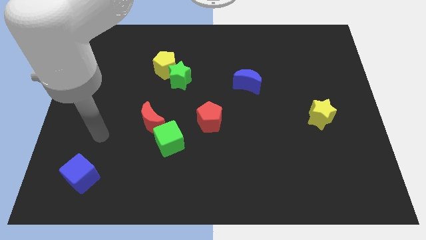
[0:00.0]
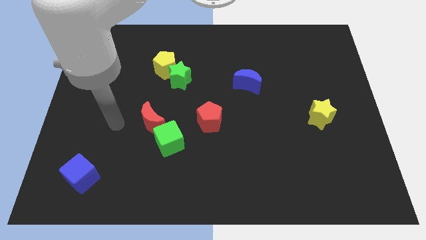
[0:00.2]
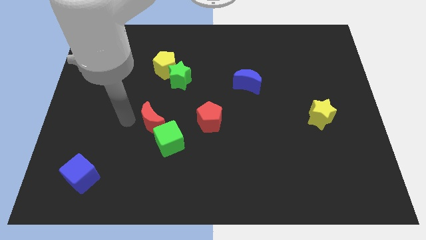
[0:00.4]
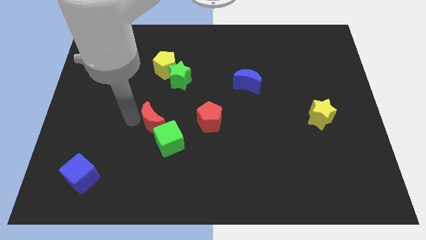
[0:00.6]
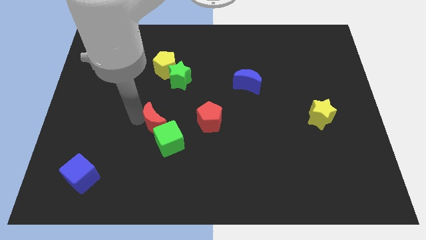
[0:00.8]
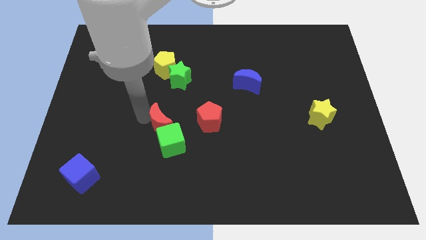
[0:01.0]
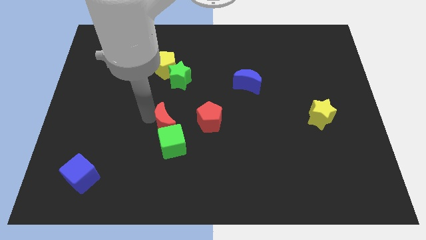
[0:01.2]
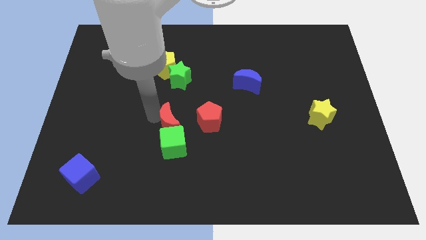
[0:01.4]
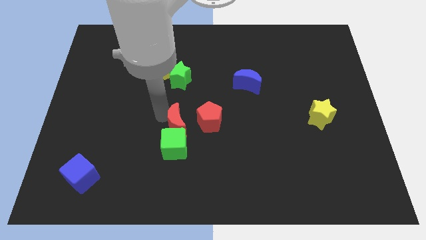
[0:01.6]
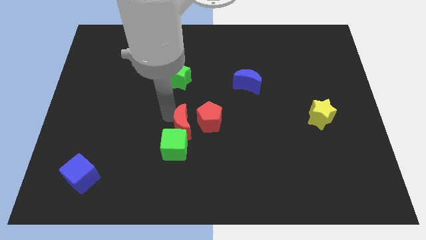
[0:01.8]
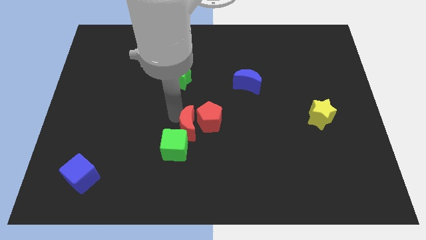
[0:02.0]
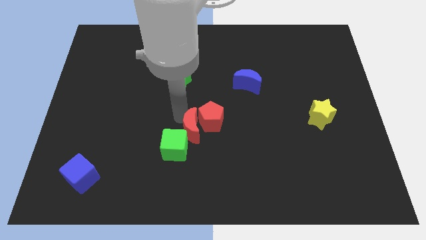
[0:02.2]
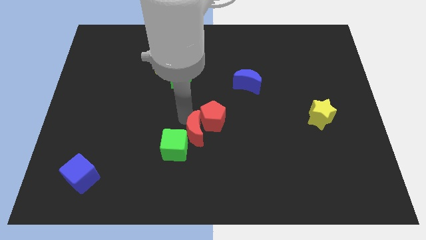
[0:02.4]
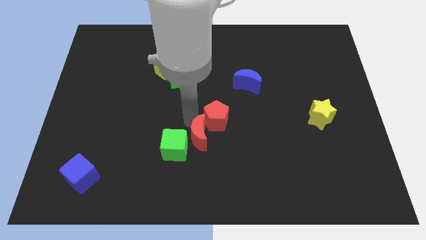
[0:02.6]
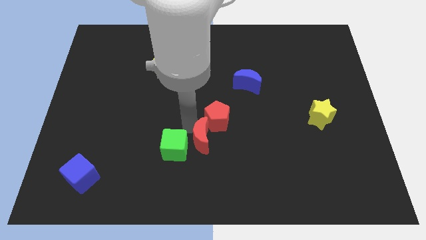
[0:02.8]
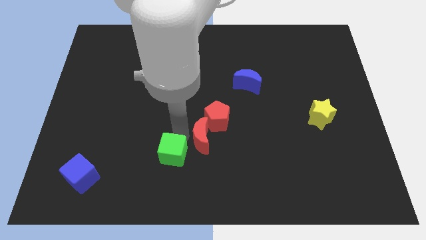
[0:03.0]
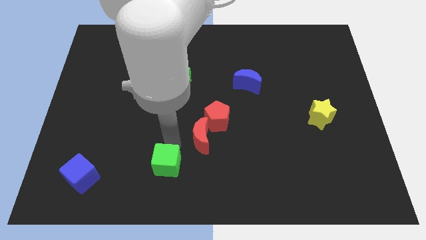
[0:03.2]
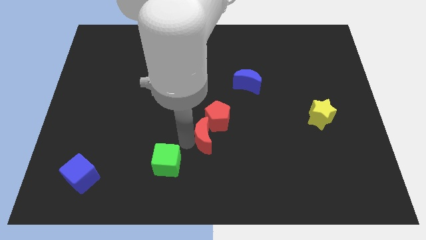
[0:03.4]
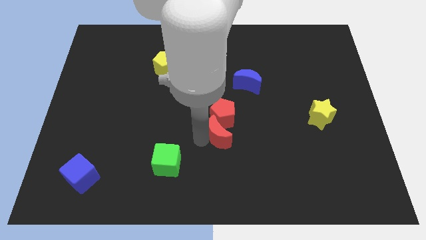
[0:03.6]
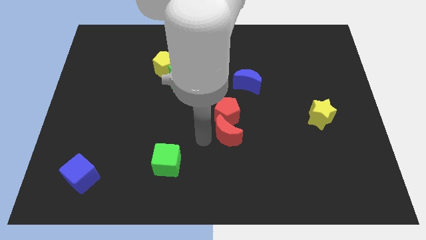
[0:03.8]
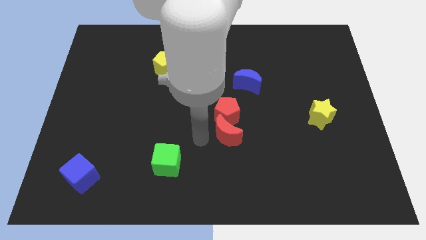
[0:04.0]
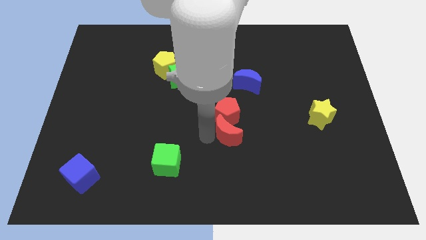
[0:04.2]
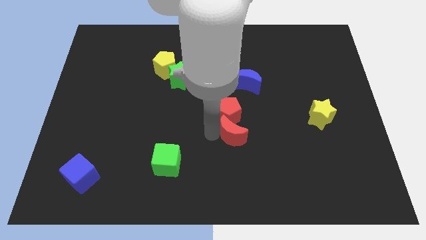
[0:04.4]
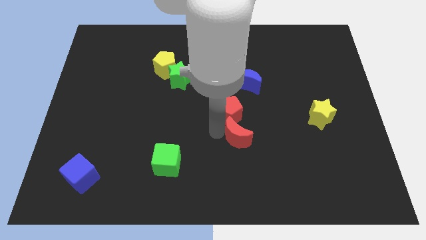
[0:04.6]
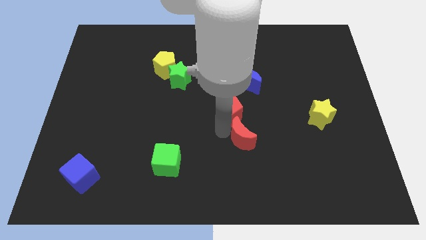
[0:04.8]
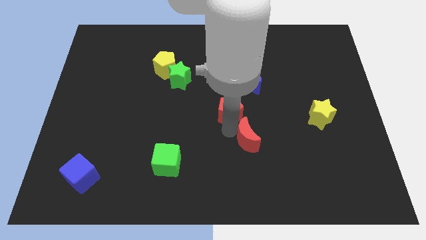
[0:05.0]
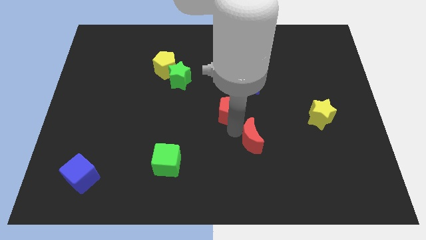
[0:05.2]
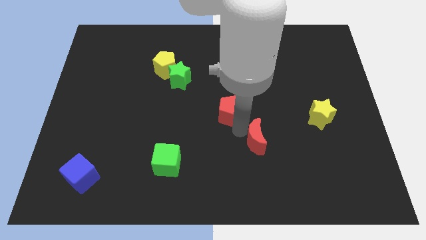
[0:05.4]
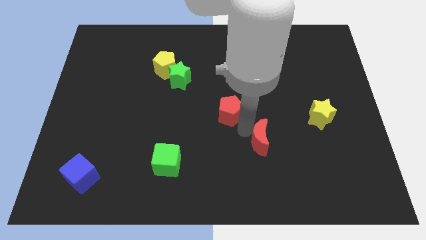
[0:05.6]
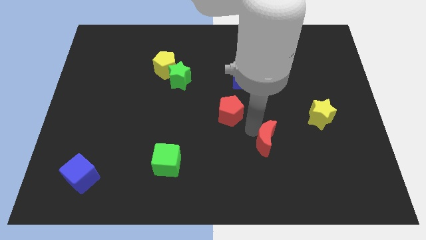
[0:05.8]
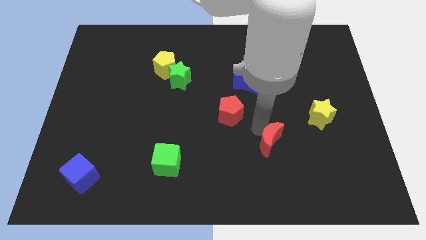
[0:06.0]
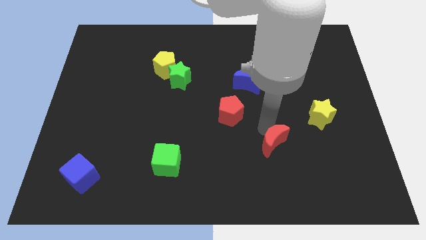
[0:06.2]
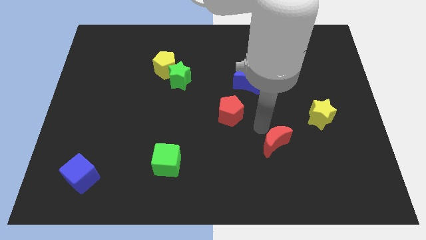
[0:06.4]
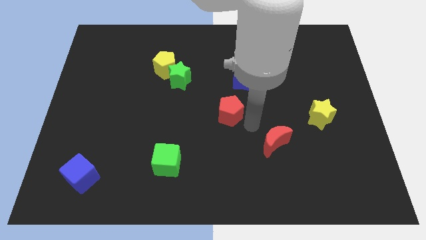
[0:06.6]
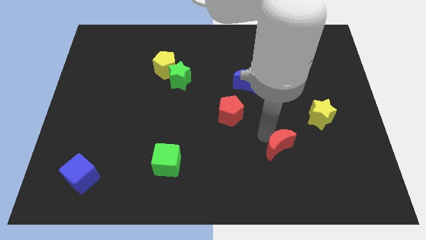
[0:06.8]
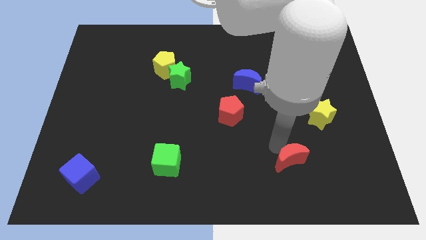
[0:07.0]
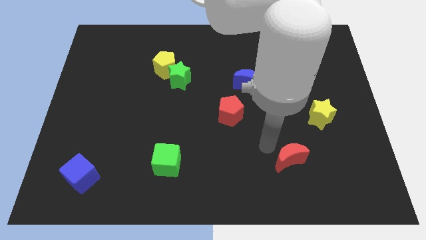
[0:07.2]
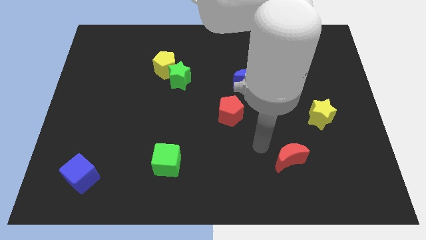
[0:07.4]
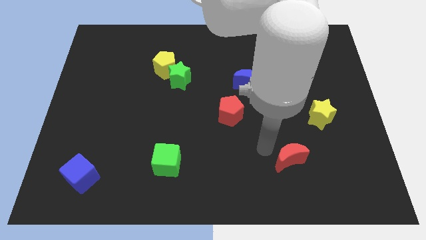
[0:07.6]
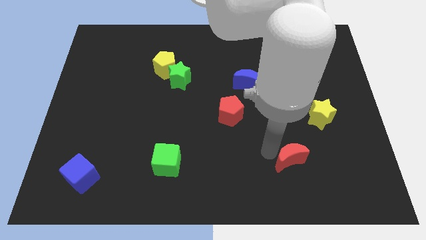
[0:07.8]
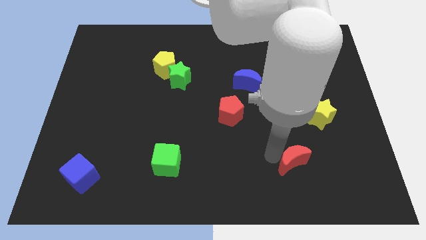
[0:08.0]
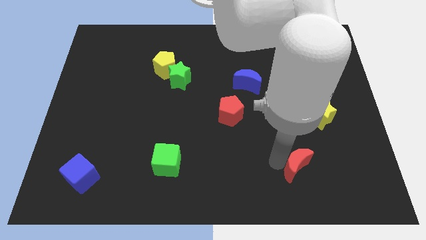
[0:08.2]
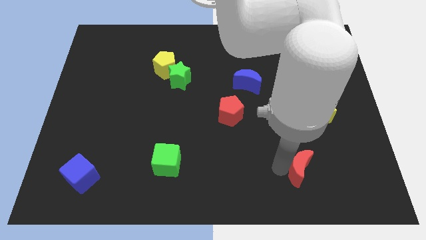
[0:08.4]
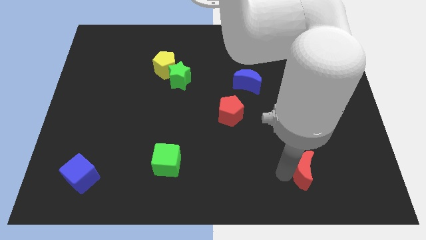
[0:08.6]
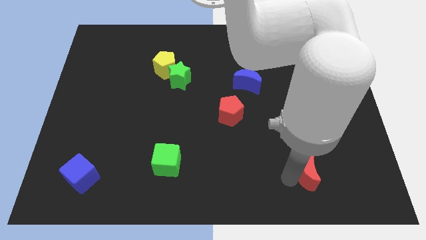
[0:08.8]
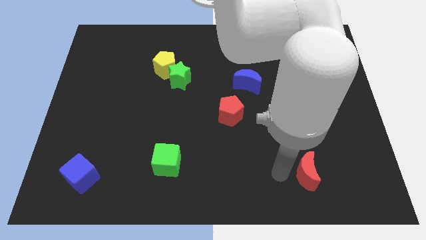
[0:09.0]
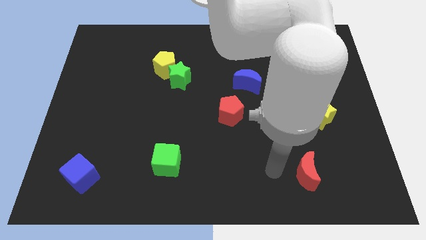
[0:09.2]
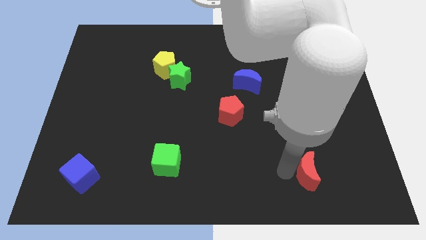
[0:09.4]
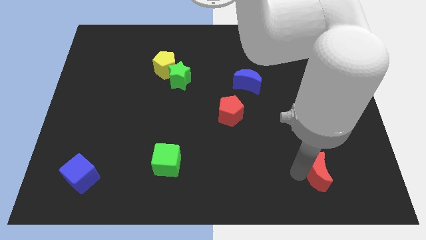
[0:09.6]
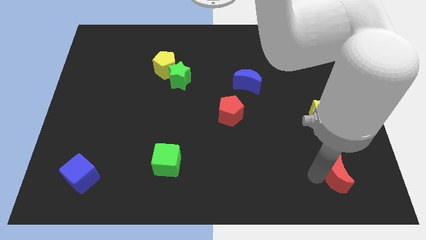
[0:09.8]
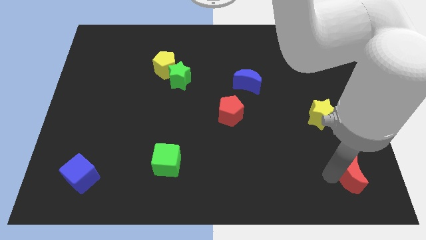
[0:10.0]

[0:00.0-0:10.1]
move the red moon to the bottom right of the board

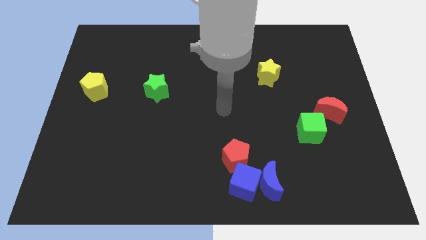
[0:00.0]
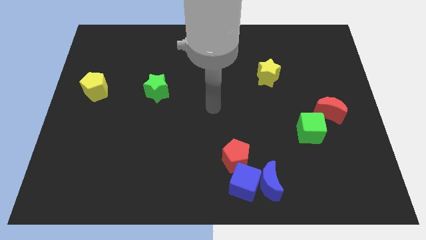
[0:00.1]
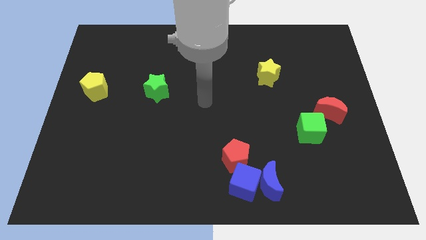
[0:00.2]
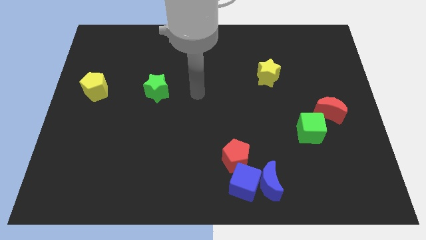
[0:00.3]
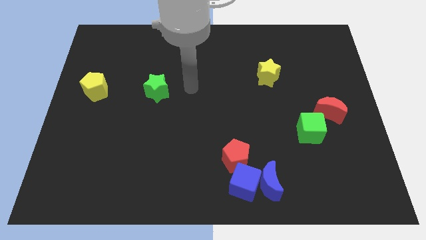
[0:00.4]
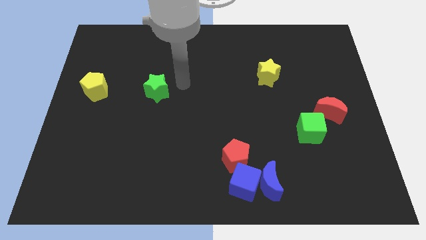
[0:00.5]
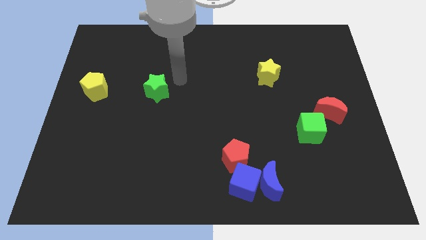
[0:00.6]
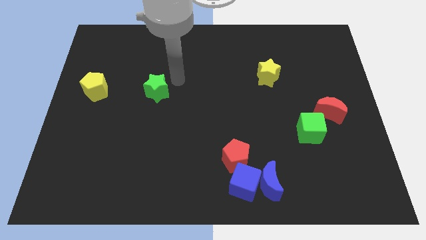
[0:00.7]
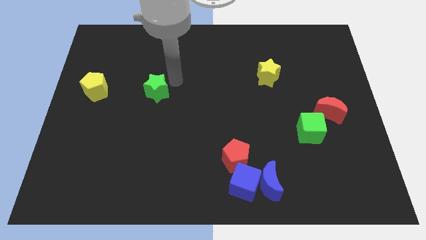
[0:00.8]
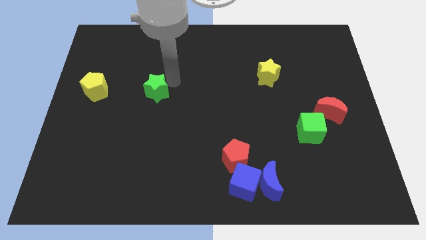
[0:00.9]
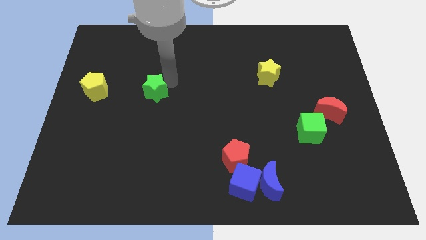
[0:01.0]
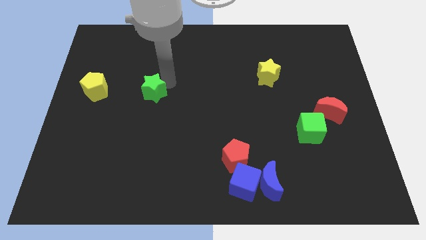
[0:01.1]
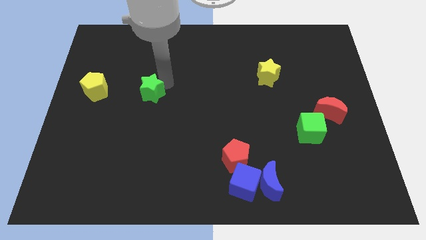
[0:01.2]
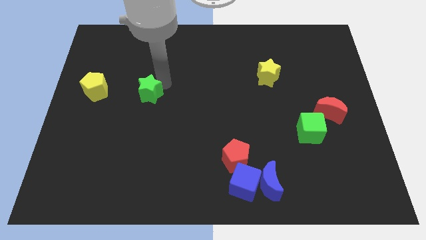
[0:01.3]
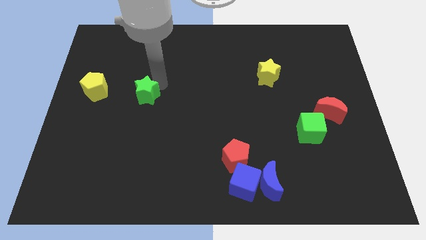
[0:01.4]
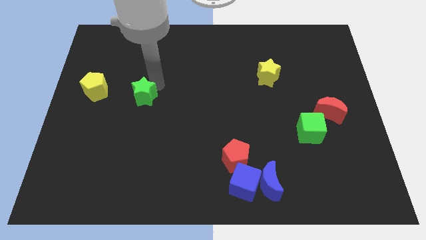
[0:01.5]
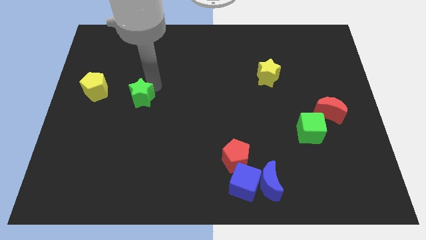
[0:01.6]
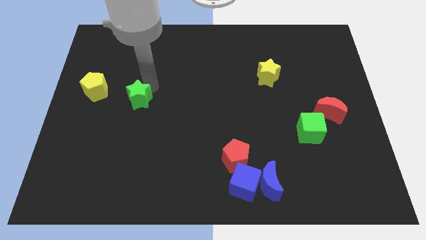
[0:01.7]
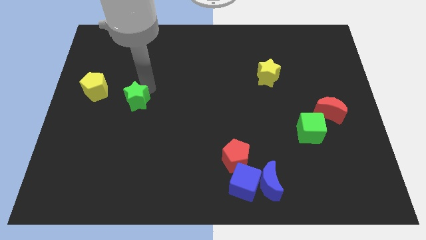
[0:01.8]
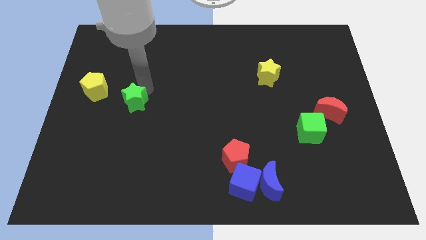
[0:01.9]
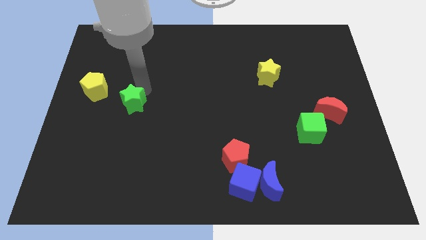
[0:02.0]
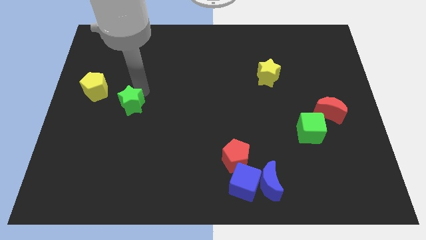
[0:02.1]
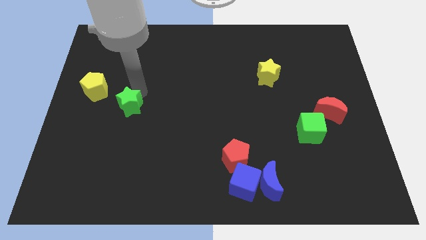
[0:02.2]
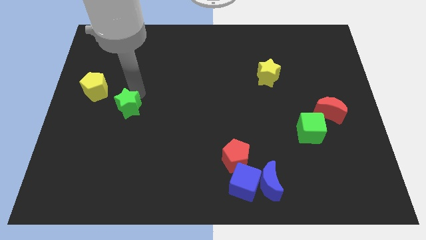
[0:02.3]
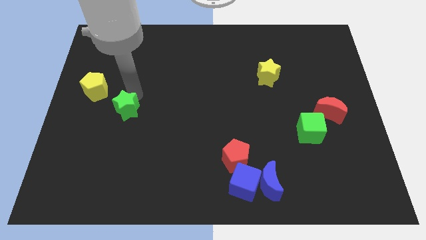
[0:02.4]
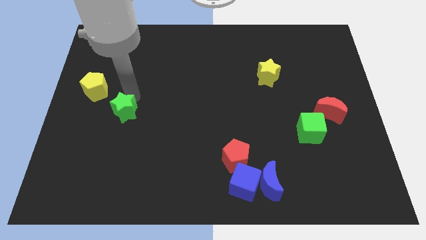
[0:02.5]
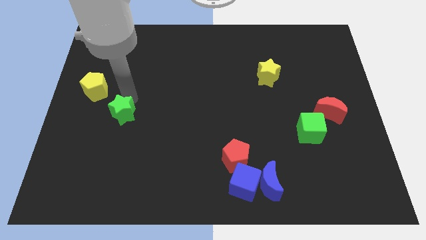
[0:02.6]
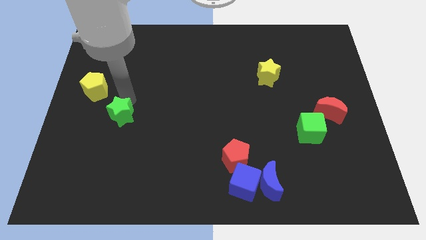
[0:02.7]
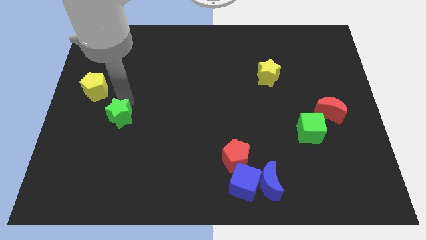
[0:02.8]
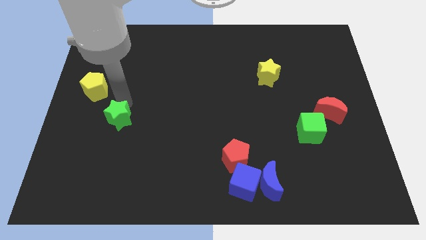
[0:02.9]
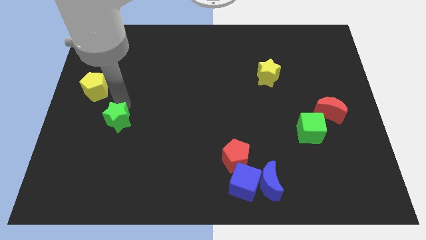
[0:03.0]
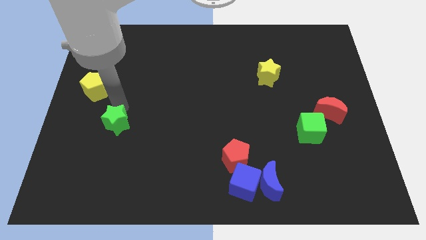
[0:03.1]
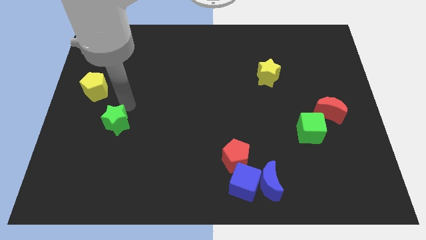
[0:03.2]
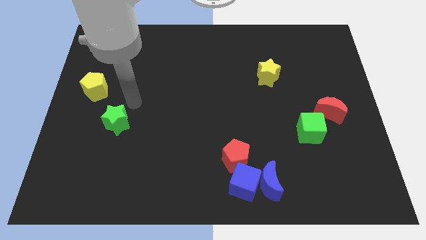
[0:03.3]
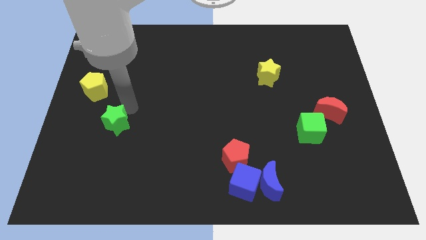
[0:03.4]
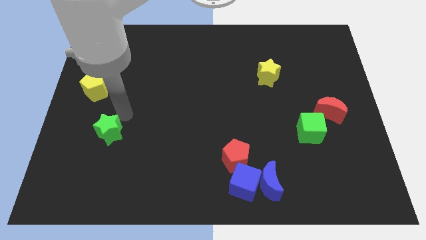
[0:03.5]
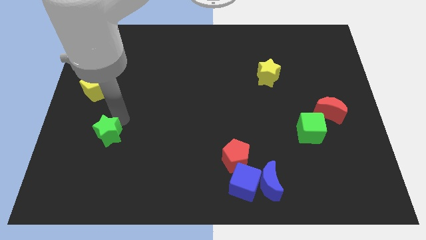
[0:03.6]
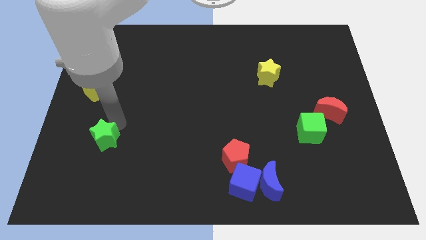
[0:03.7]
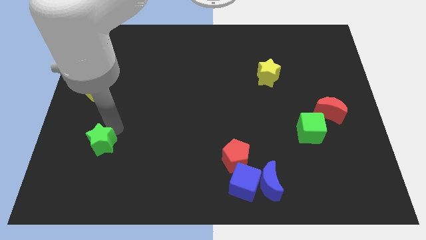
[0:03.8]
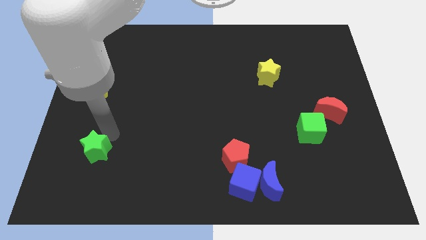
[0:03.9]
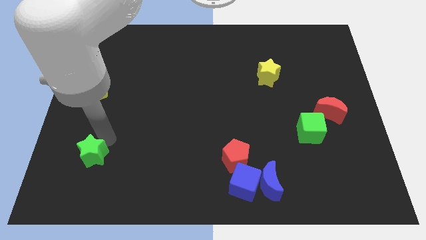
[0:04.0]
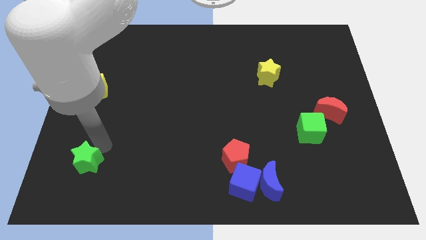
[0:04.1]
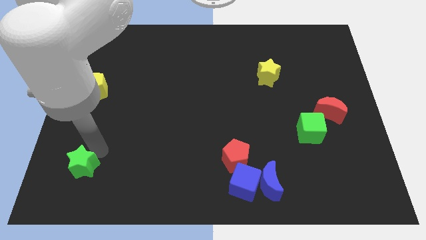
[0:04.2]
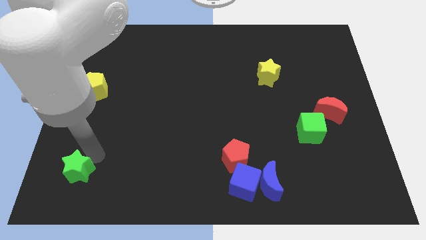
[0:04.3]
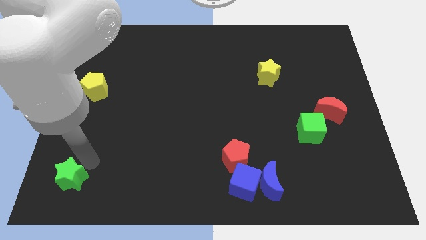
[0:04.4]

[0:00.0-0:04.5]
slide the green star to the bottom left corner
